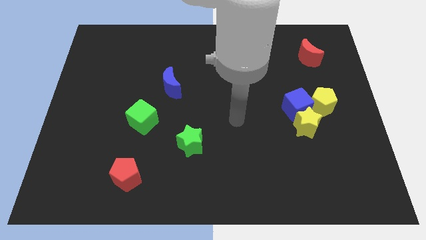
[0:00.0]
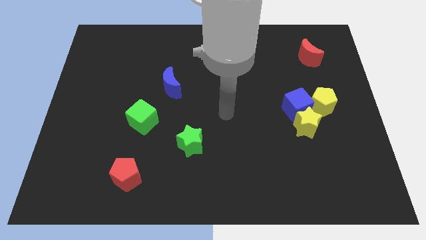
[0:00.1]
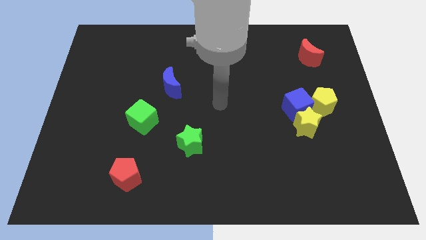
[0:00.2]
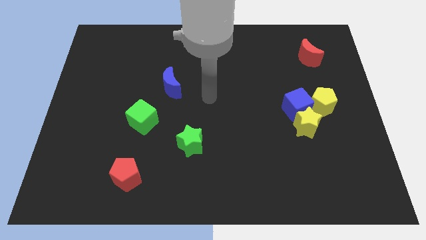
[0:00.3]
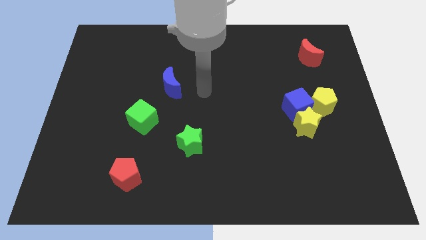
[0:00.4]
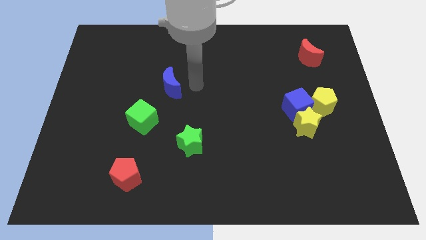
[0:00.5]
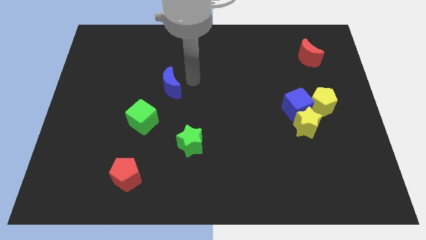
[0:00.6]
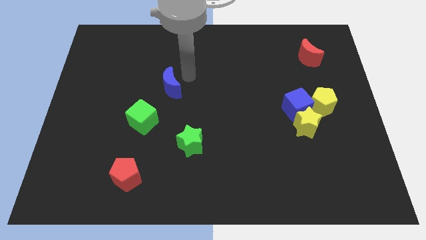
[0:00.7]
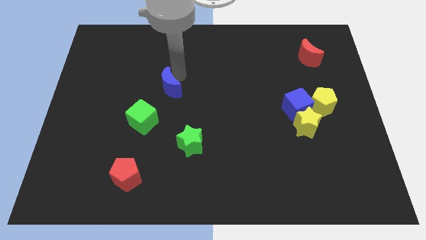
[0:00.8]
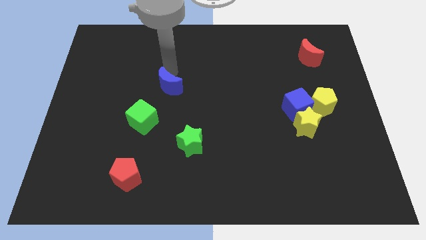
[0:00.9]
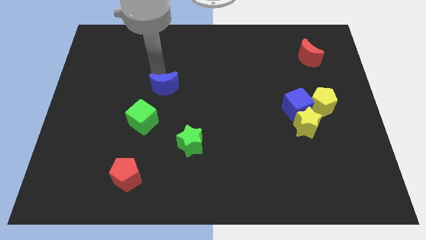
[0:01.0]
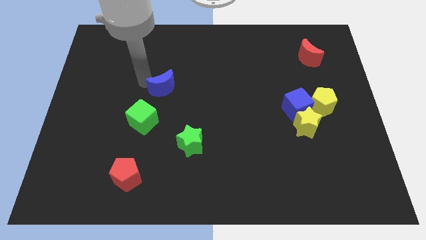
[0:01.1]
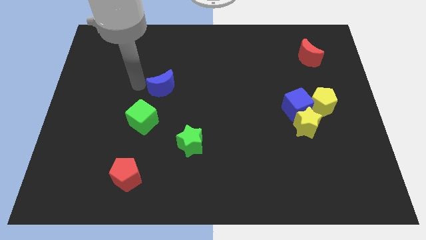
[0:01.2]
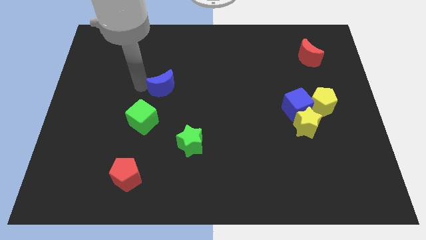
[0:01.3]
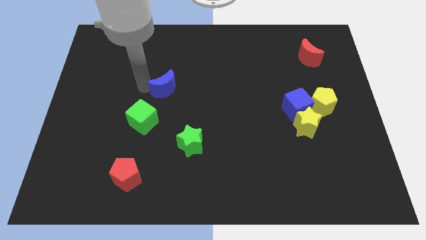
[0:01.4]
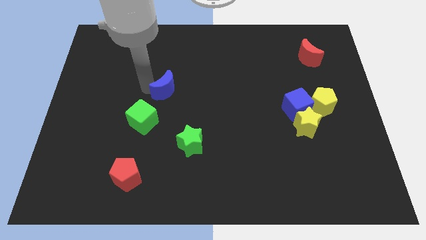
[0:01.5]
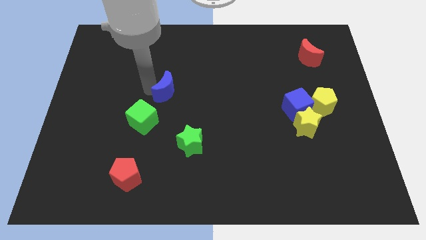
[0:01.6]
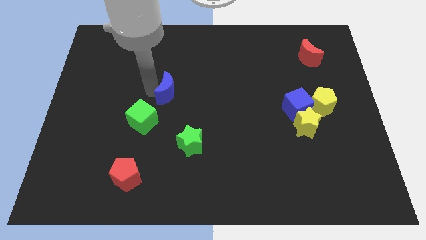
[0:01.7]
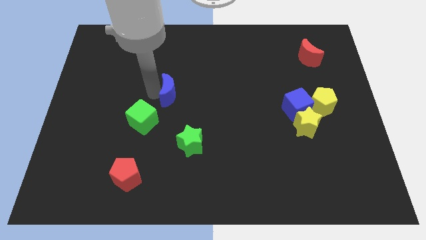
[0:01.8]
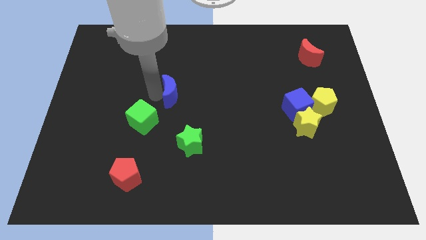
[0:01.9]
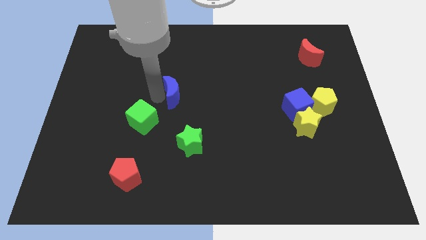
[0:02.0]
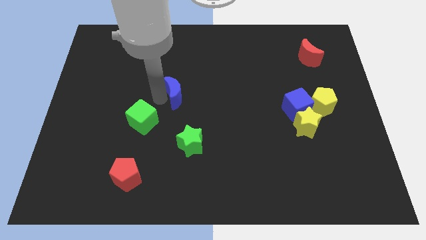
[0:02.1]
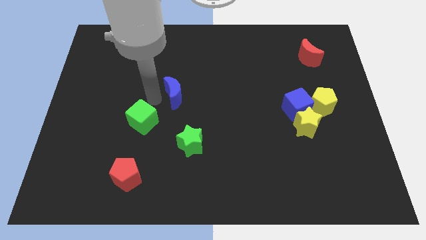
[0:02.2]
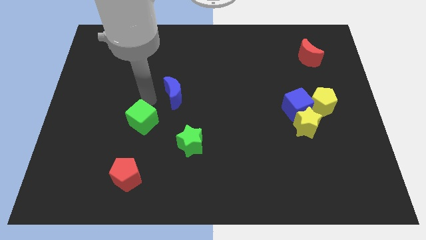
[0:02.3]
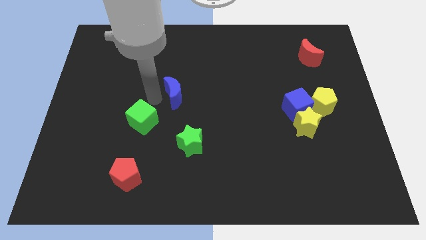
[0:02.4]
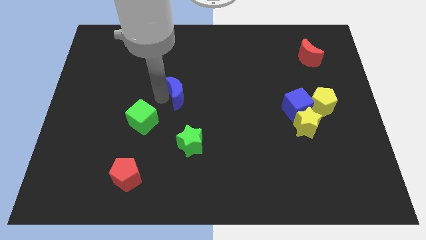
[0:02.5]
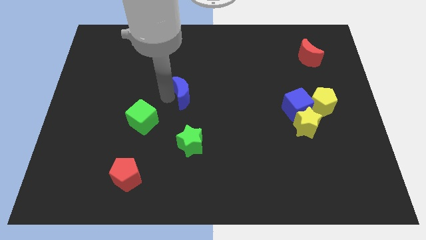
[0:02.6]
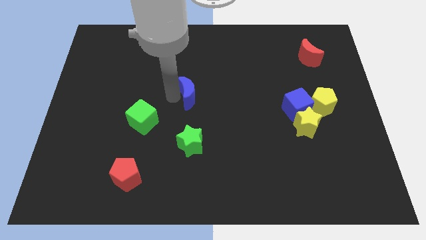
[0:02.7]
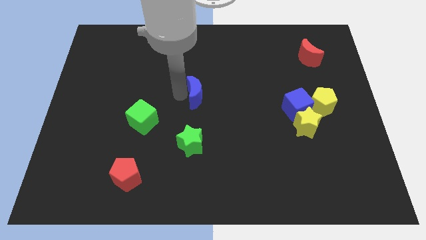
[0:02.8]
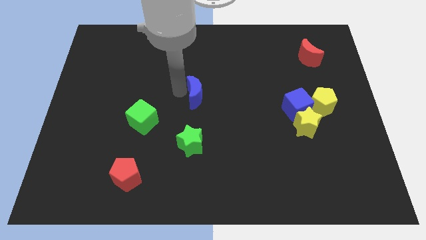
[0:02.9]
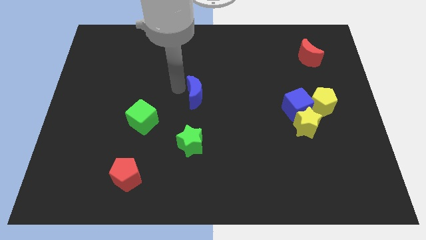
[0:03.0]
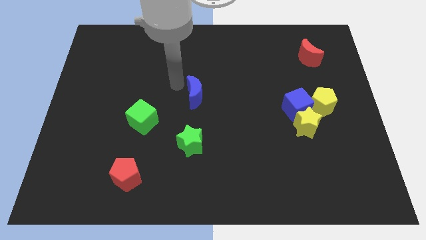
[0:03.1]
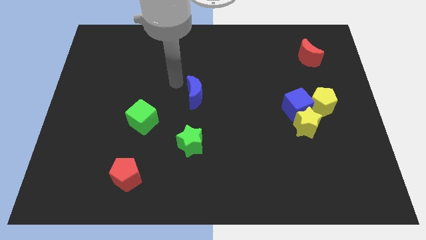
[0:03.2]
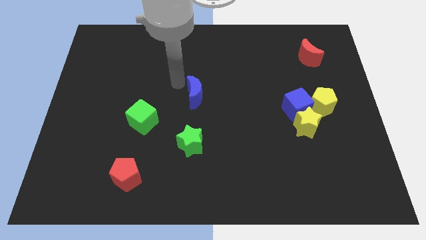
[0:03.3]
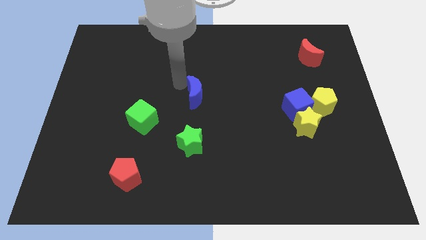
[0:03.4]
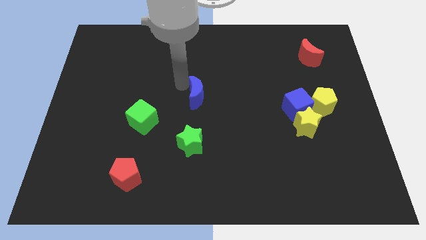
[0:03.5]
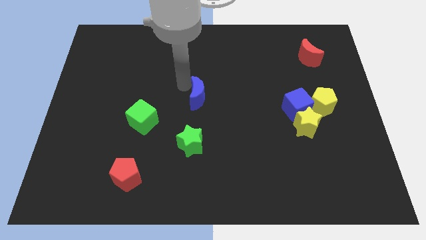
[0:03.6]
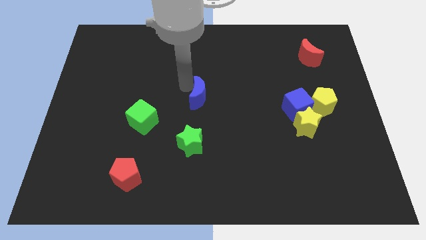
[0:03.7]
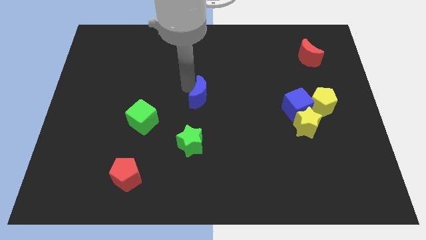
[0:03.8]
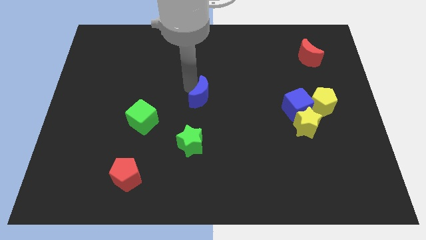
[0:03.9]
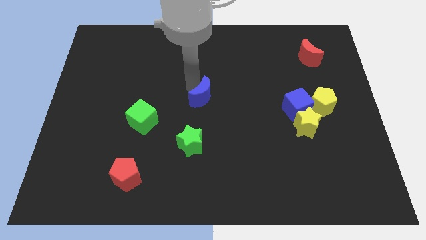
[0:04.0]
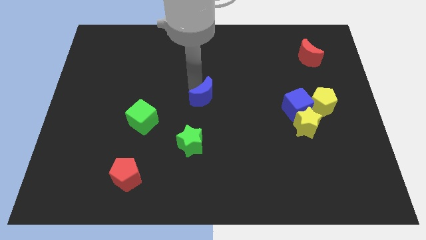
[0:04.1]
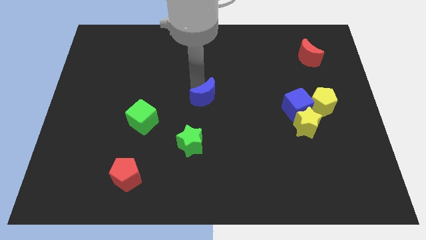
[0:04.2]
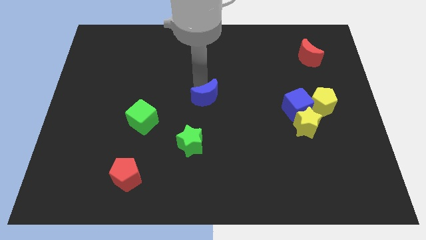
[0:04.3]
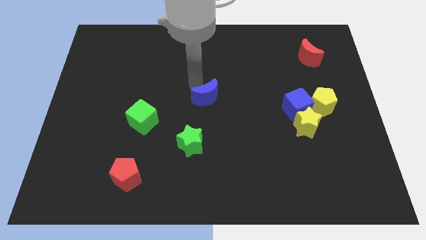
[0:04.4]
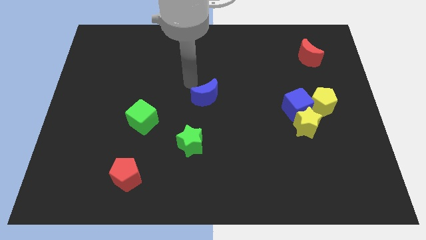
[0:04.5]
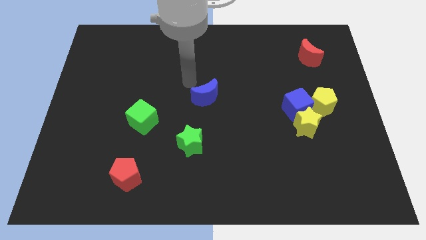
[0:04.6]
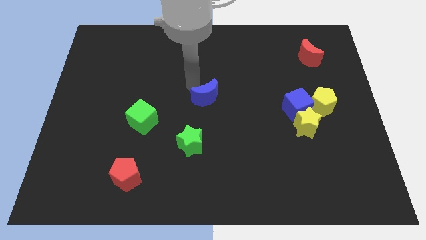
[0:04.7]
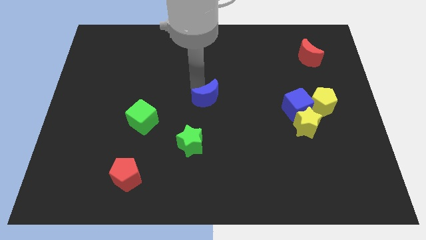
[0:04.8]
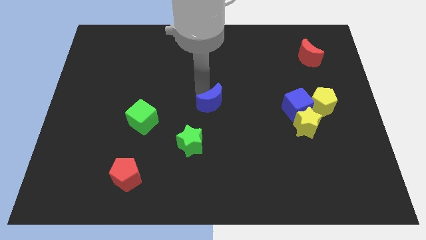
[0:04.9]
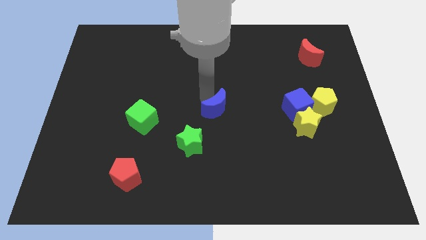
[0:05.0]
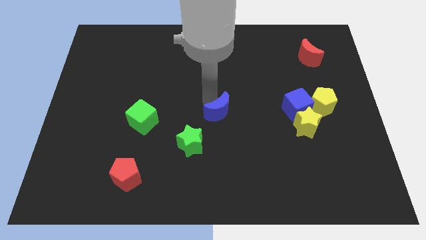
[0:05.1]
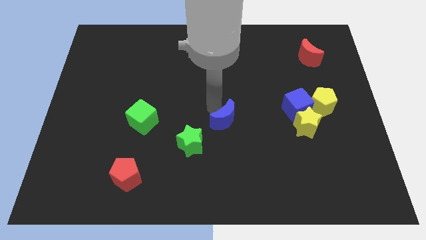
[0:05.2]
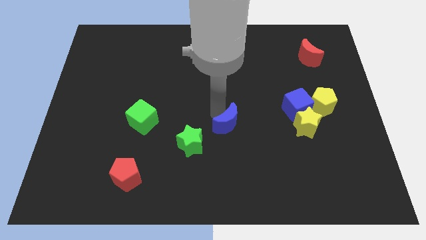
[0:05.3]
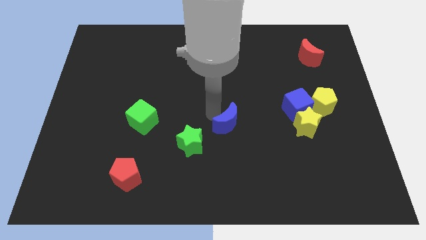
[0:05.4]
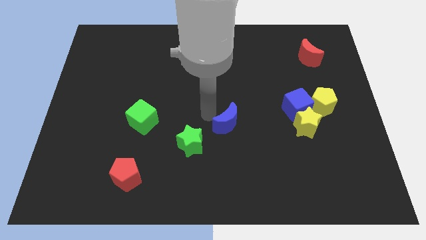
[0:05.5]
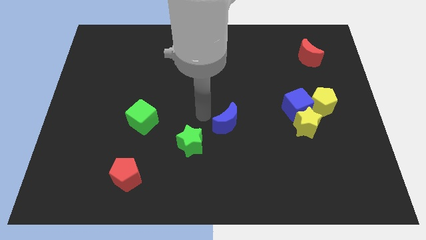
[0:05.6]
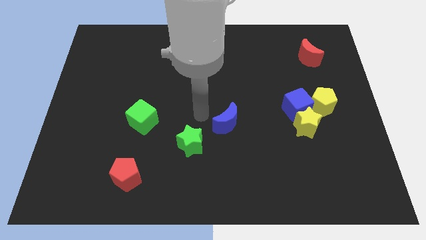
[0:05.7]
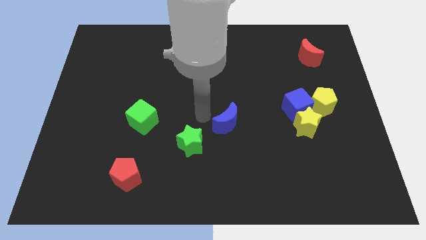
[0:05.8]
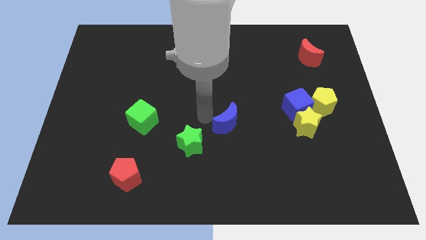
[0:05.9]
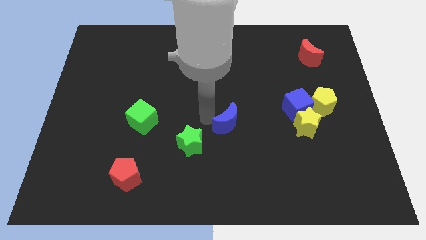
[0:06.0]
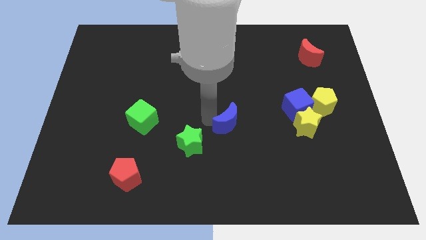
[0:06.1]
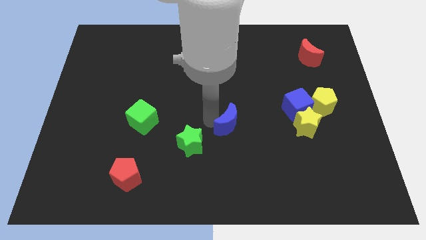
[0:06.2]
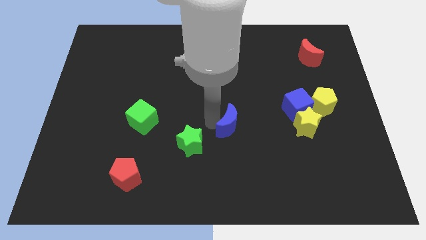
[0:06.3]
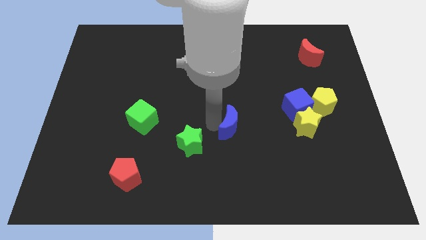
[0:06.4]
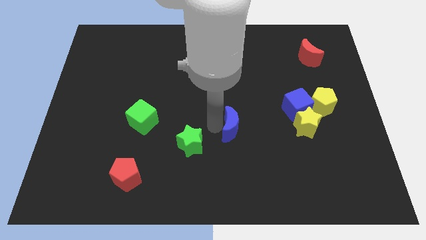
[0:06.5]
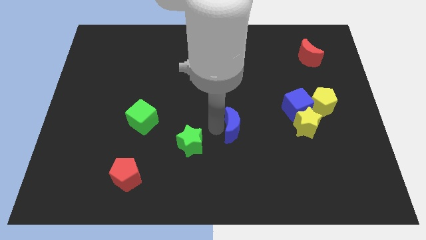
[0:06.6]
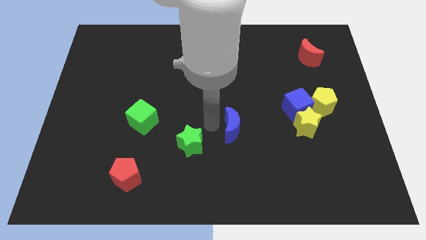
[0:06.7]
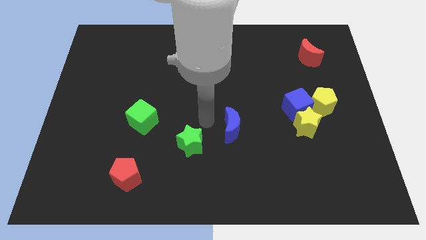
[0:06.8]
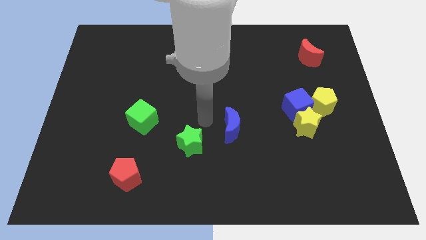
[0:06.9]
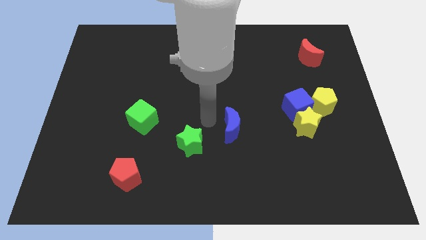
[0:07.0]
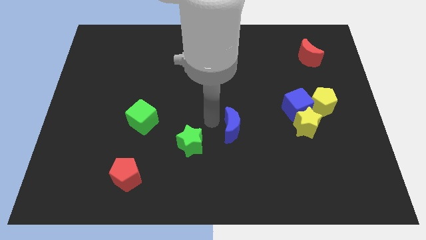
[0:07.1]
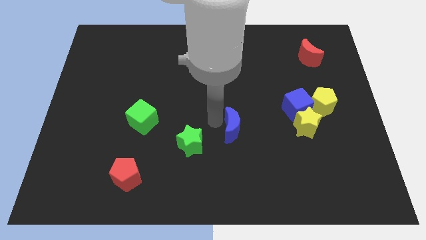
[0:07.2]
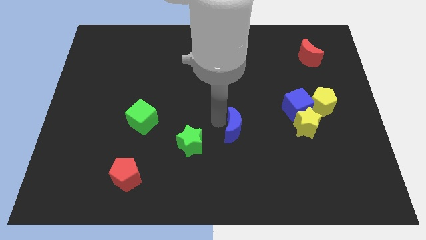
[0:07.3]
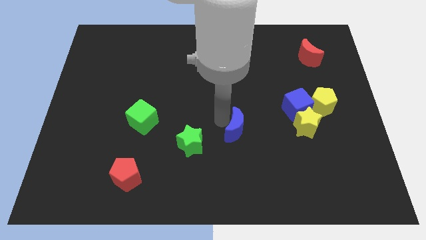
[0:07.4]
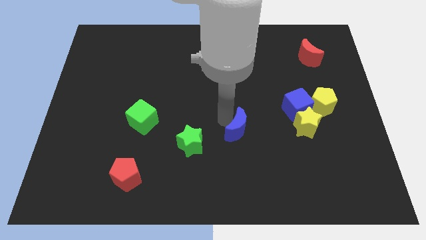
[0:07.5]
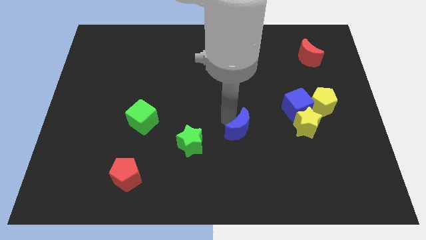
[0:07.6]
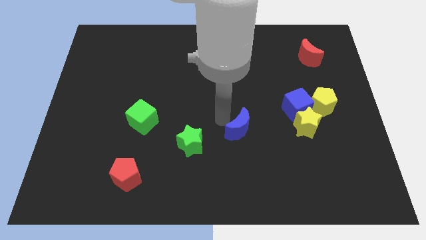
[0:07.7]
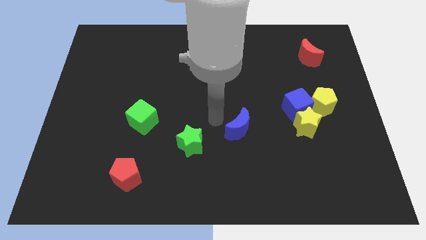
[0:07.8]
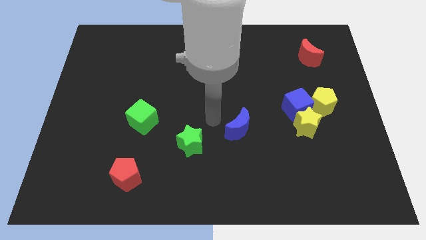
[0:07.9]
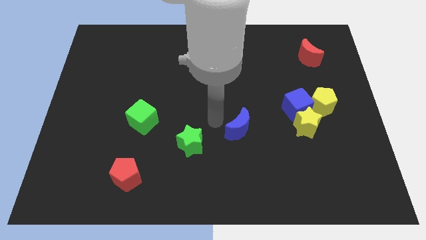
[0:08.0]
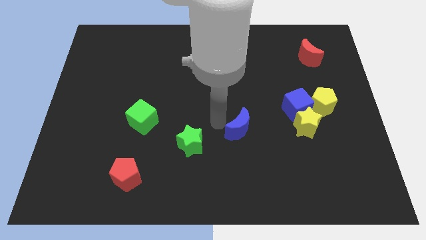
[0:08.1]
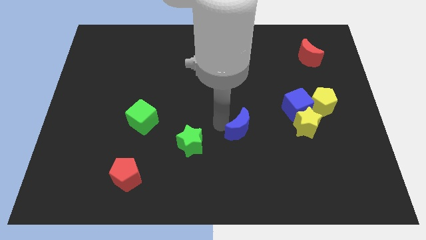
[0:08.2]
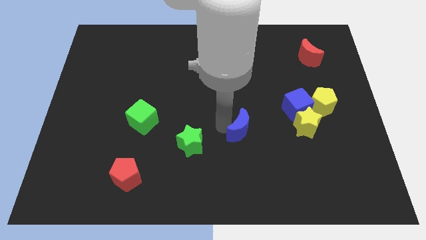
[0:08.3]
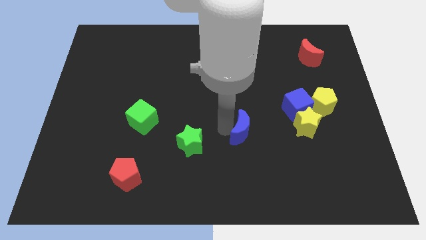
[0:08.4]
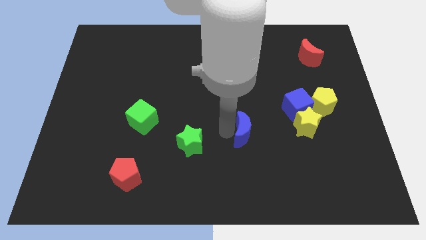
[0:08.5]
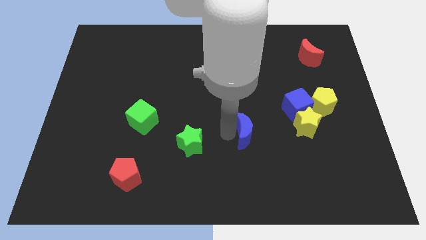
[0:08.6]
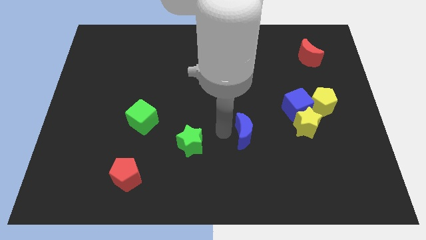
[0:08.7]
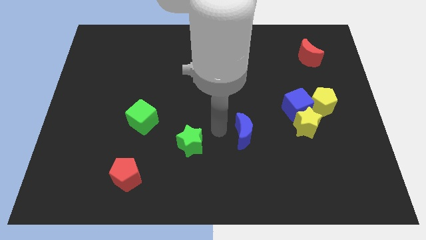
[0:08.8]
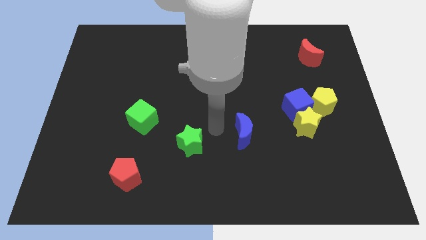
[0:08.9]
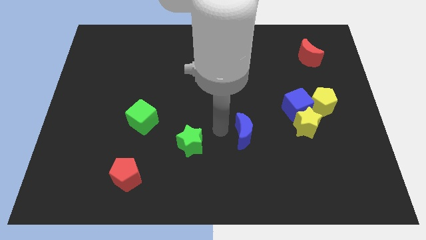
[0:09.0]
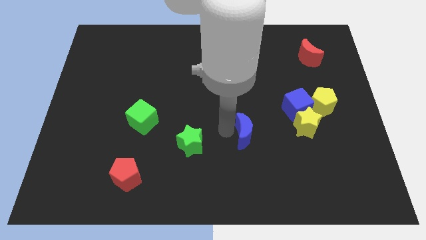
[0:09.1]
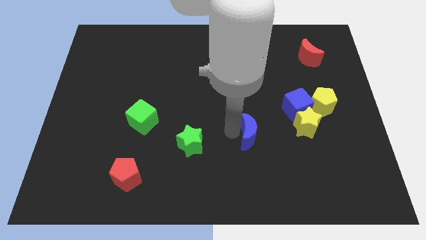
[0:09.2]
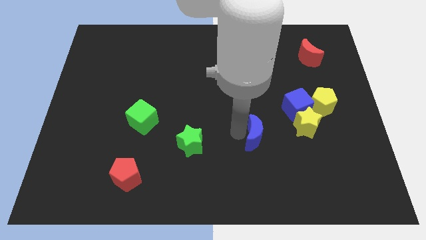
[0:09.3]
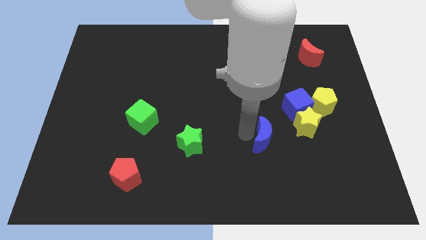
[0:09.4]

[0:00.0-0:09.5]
push the blue moon to the bottom left of the yellow star
